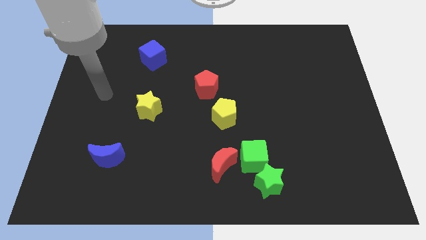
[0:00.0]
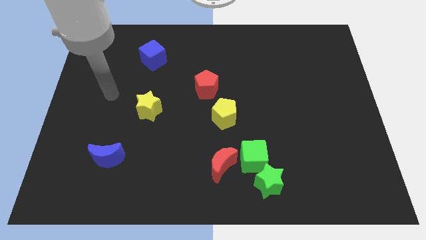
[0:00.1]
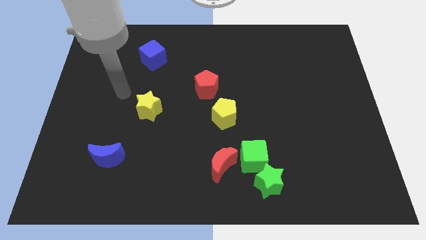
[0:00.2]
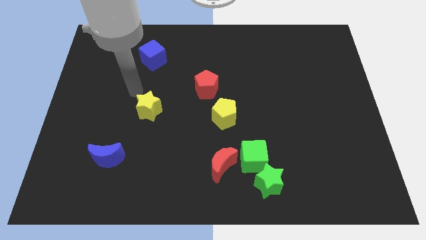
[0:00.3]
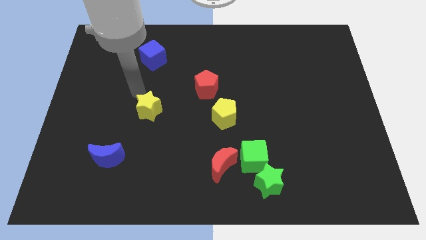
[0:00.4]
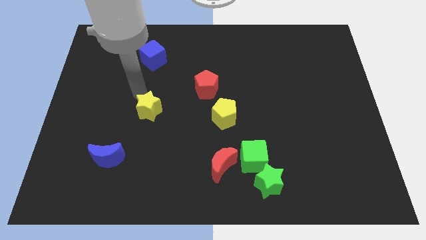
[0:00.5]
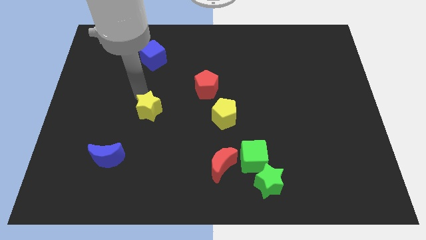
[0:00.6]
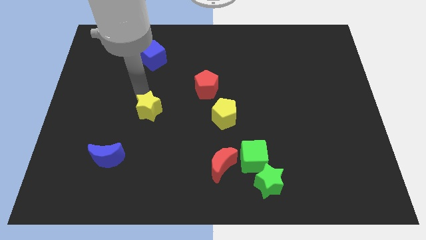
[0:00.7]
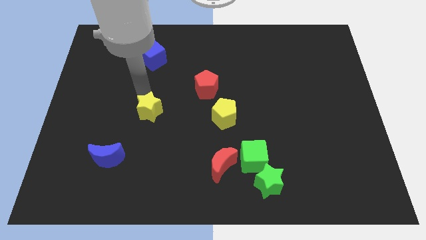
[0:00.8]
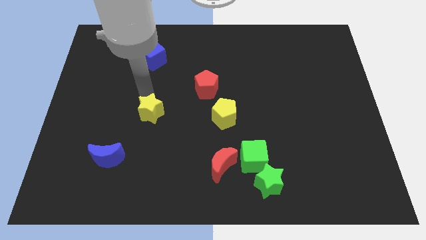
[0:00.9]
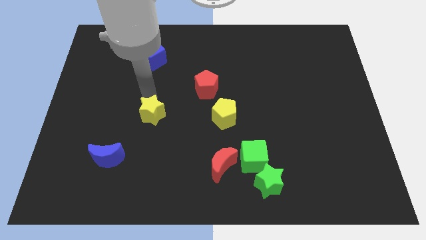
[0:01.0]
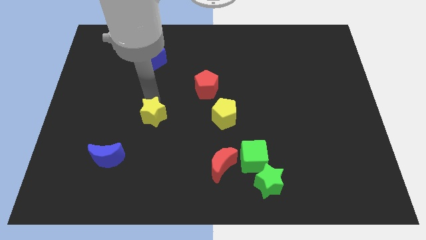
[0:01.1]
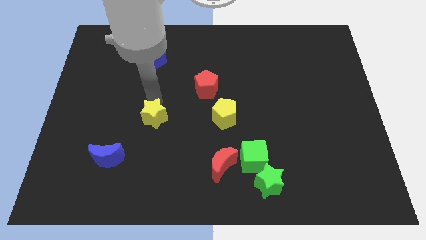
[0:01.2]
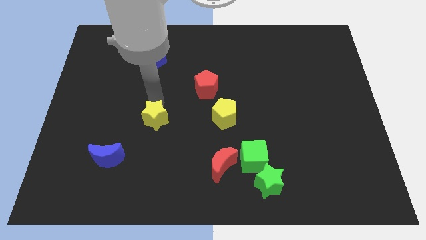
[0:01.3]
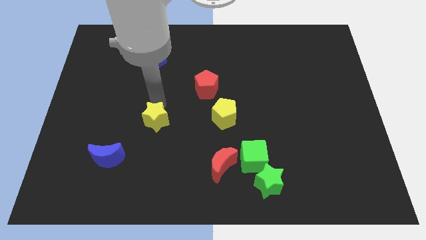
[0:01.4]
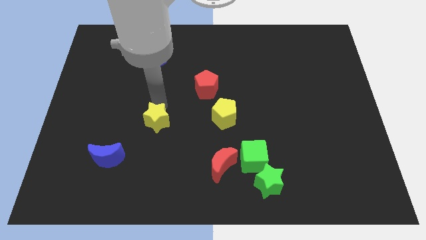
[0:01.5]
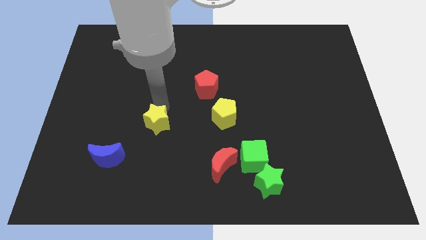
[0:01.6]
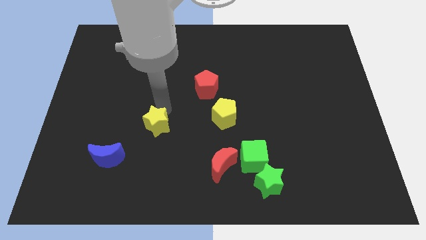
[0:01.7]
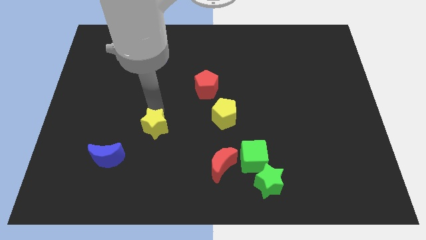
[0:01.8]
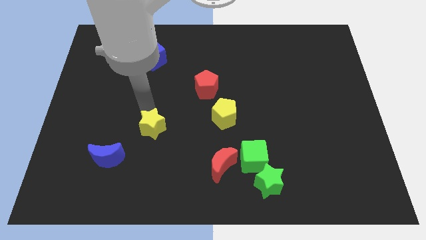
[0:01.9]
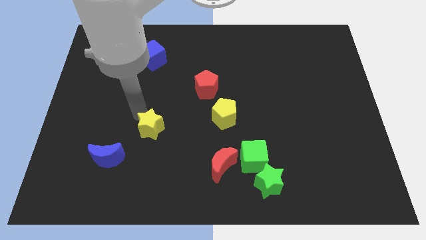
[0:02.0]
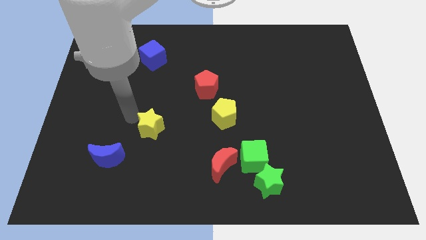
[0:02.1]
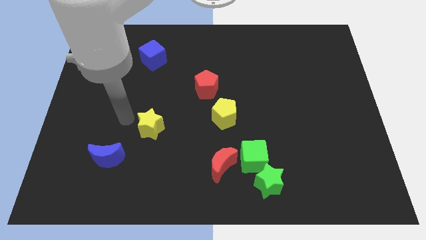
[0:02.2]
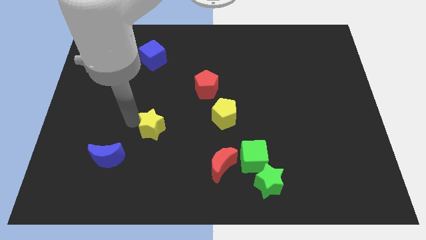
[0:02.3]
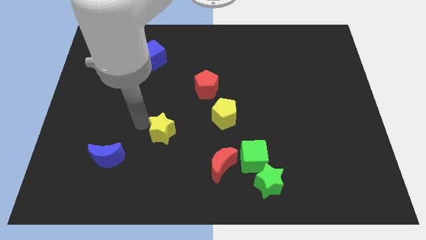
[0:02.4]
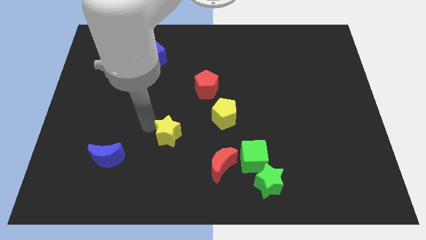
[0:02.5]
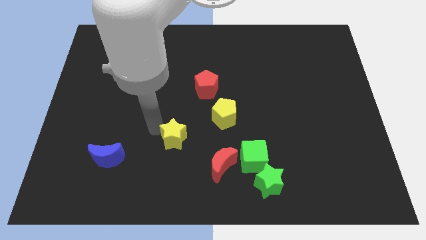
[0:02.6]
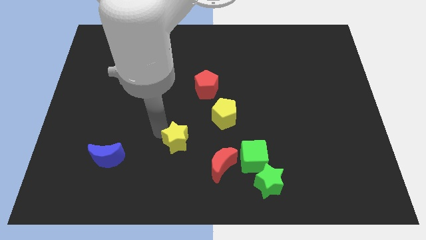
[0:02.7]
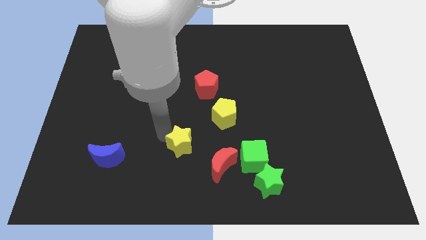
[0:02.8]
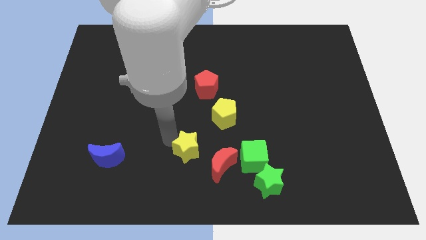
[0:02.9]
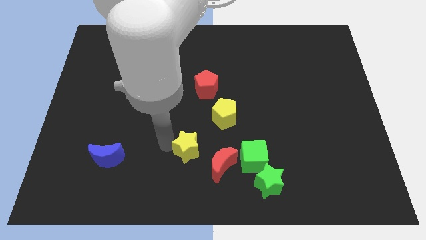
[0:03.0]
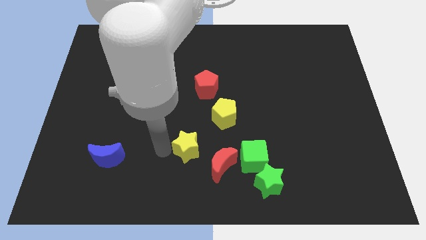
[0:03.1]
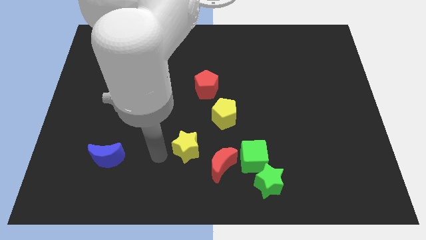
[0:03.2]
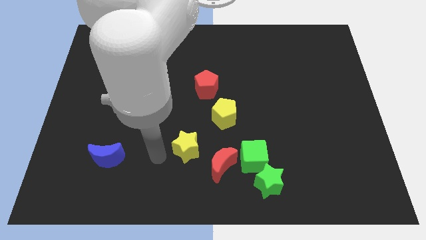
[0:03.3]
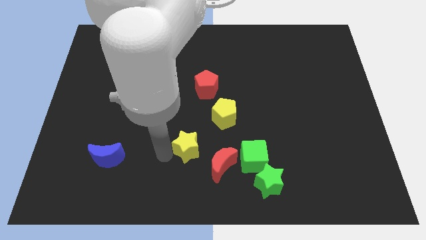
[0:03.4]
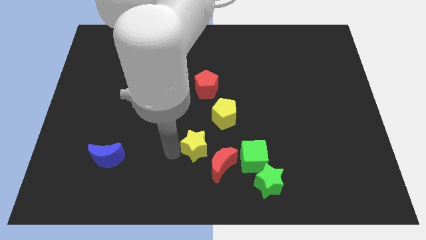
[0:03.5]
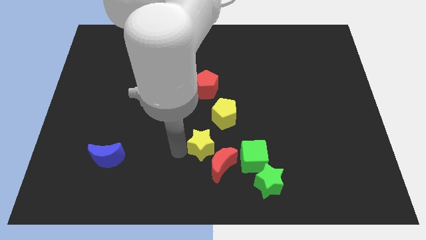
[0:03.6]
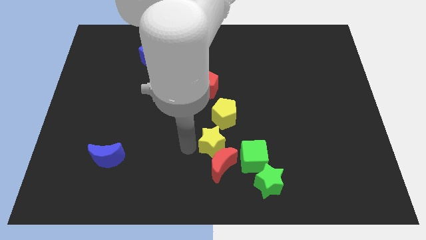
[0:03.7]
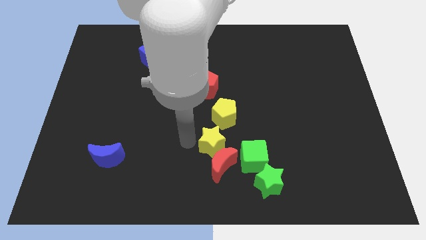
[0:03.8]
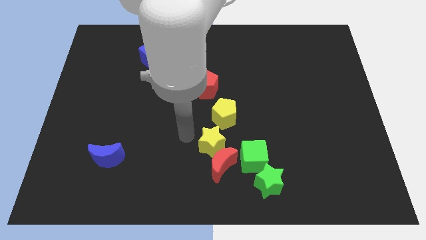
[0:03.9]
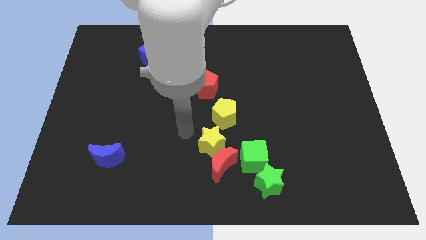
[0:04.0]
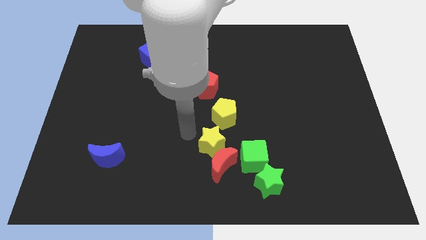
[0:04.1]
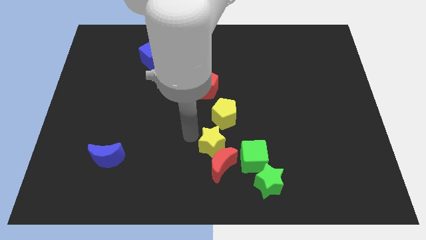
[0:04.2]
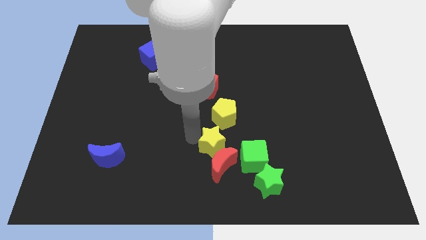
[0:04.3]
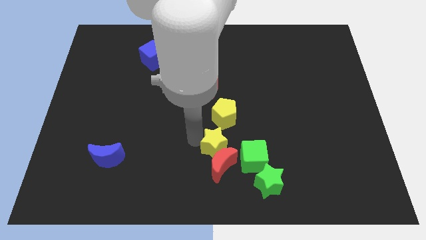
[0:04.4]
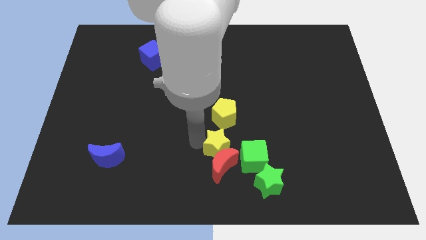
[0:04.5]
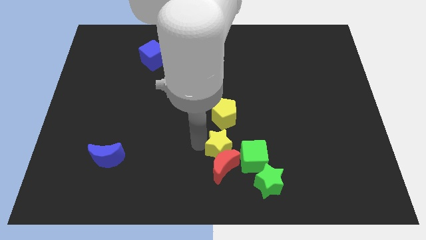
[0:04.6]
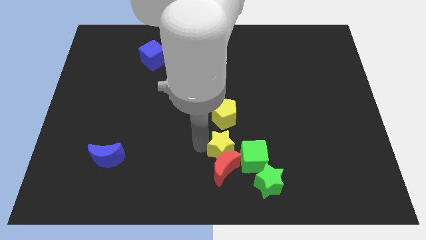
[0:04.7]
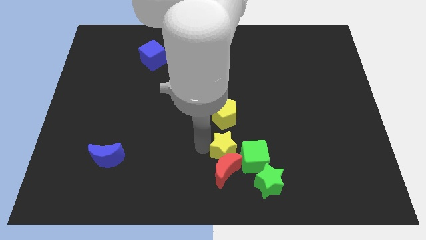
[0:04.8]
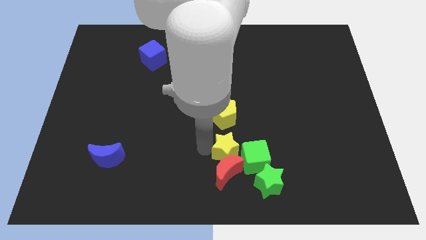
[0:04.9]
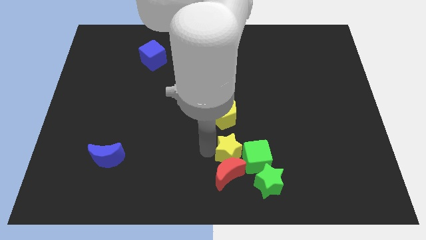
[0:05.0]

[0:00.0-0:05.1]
move the yellow star to the green cube

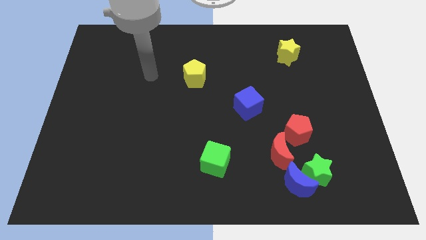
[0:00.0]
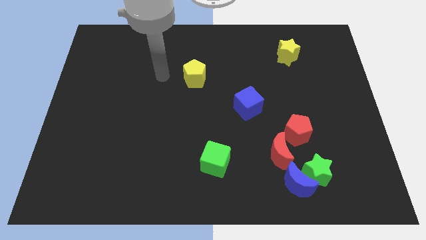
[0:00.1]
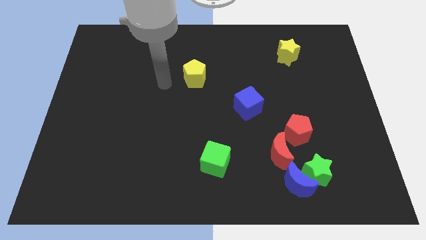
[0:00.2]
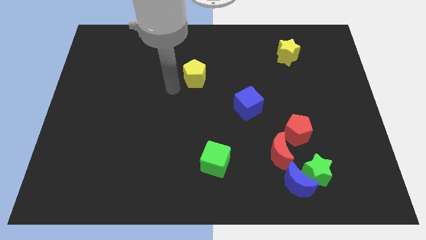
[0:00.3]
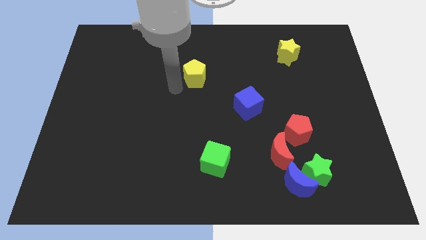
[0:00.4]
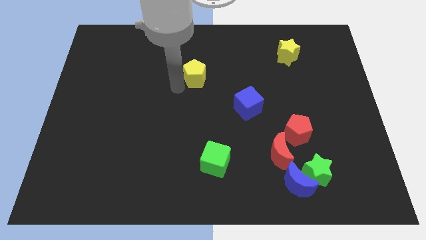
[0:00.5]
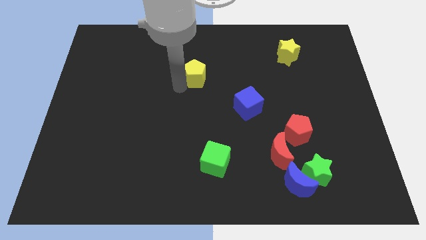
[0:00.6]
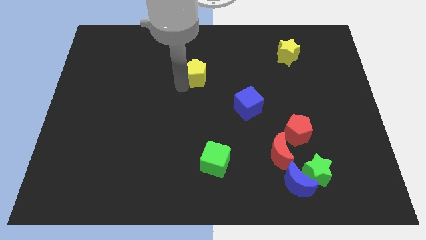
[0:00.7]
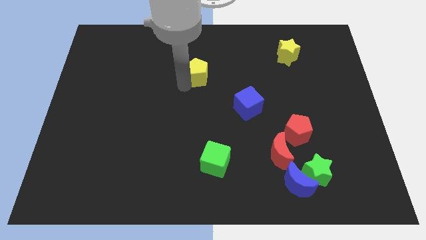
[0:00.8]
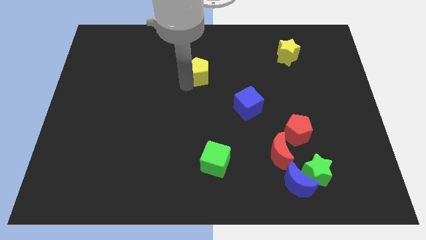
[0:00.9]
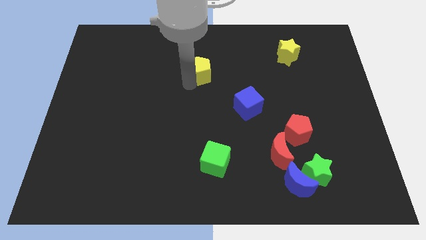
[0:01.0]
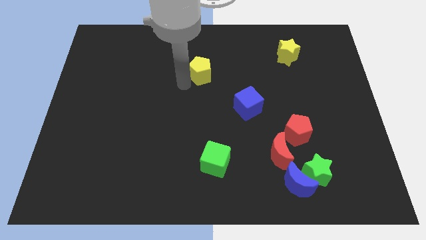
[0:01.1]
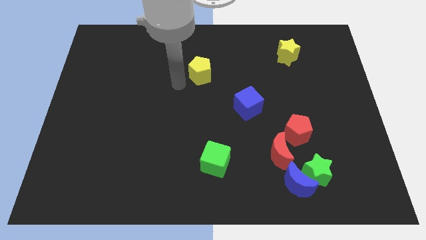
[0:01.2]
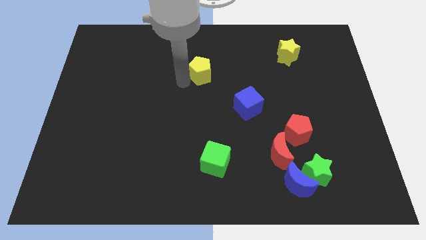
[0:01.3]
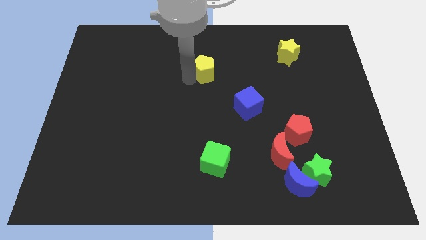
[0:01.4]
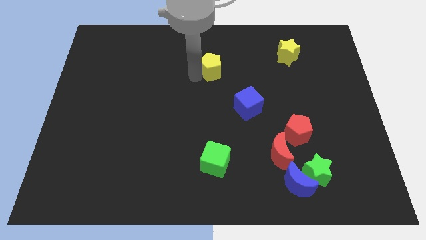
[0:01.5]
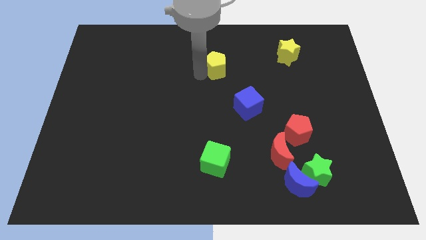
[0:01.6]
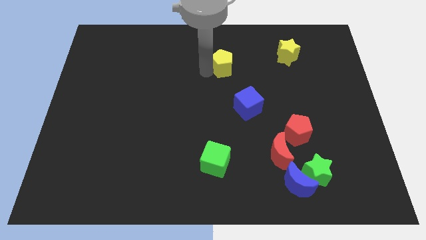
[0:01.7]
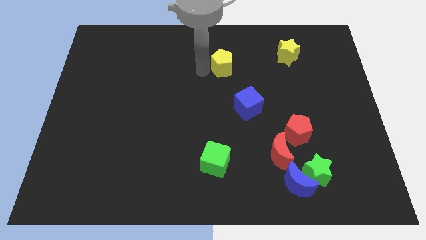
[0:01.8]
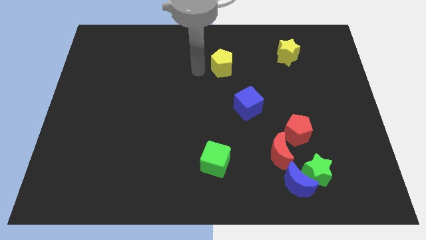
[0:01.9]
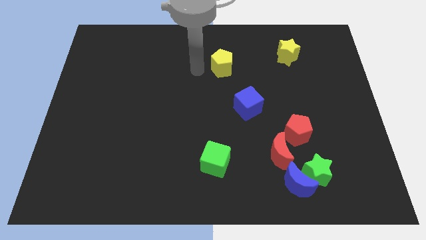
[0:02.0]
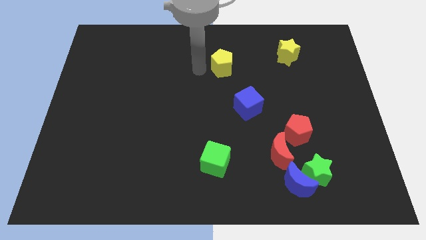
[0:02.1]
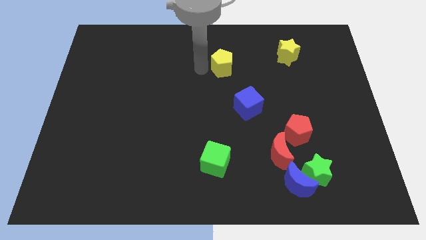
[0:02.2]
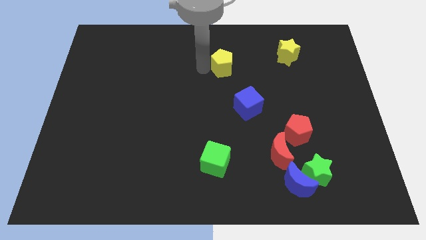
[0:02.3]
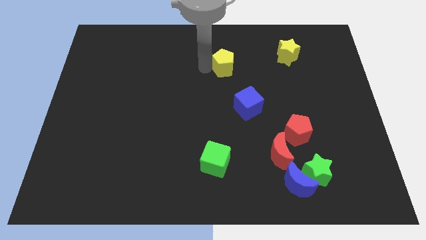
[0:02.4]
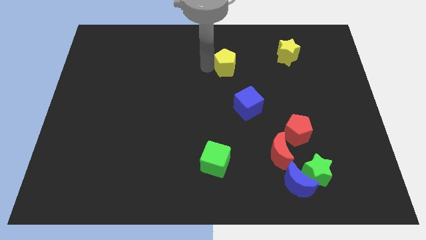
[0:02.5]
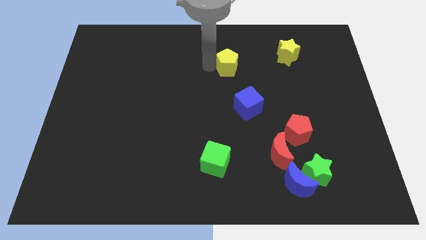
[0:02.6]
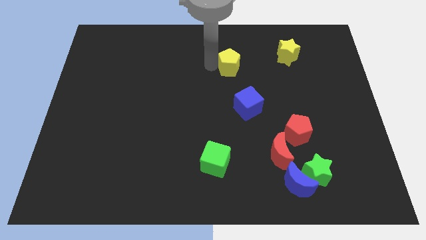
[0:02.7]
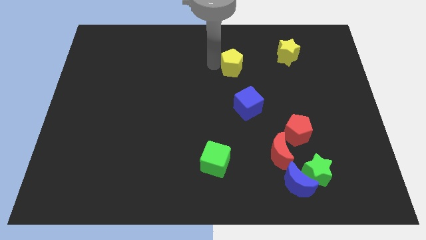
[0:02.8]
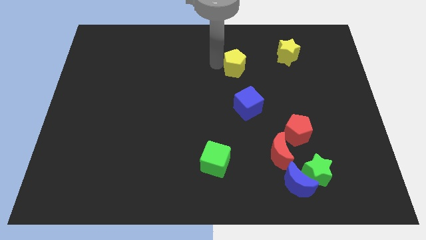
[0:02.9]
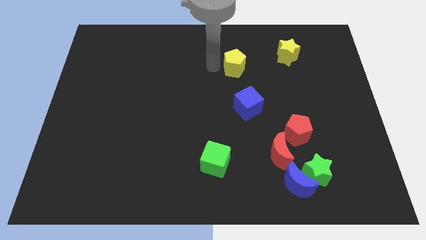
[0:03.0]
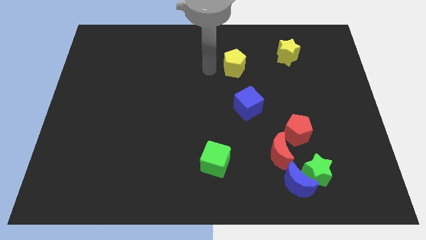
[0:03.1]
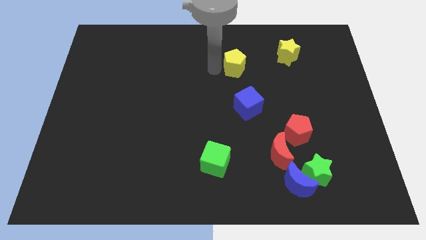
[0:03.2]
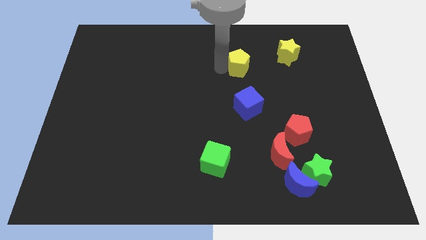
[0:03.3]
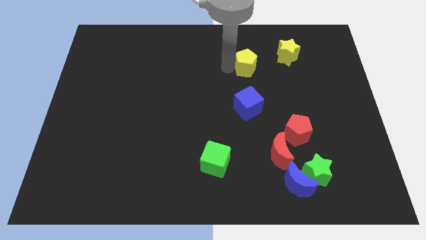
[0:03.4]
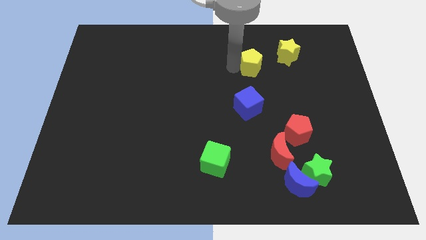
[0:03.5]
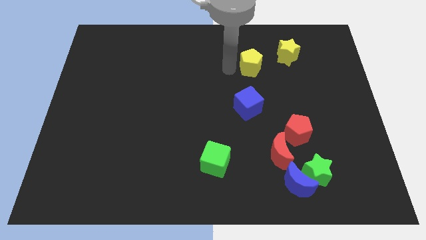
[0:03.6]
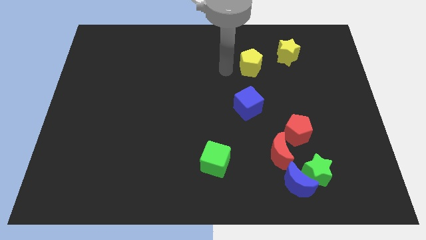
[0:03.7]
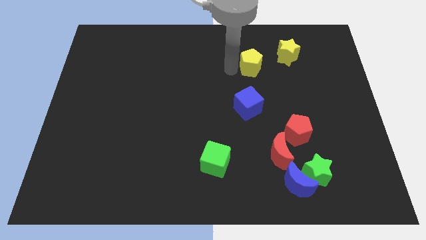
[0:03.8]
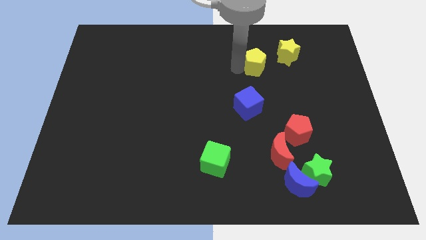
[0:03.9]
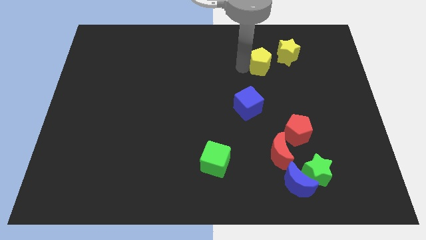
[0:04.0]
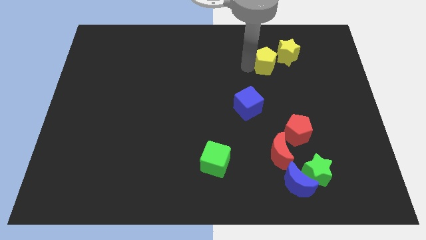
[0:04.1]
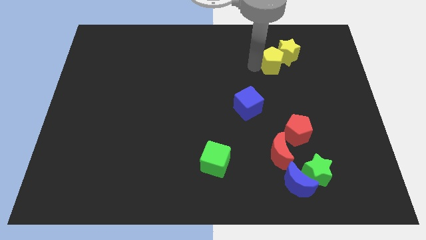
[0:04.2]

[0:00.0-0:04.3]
move the yellow pentagon next to the yellow star
